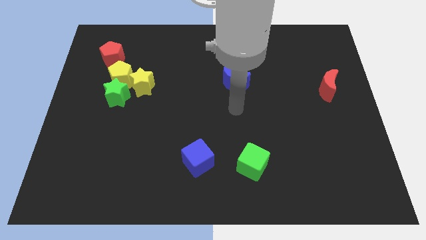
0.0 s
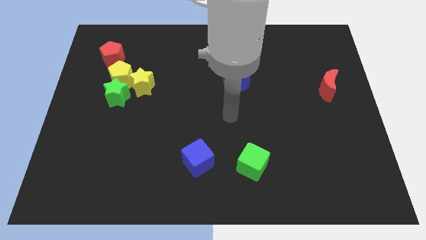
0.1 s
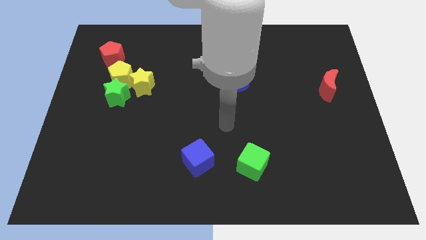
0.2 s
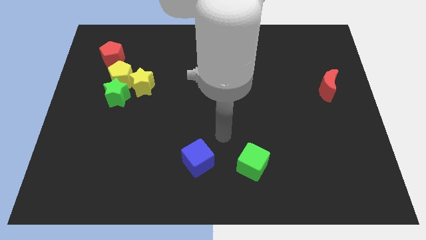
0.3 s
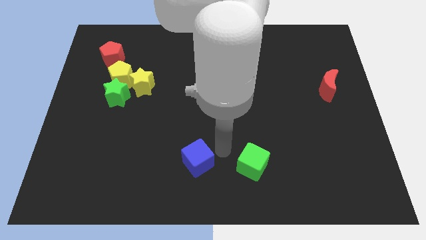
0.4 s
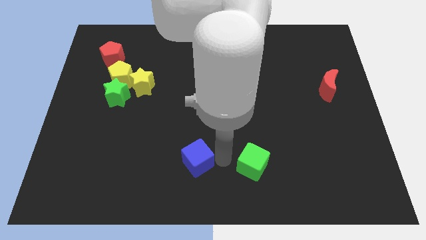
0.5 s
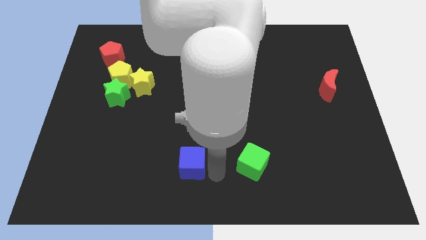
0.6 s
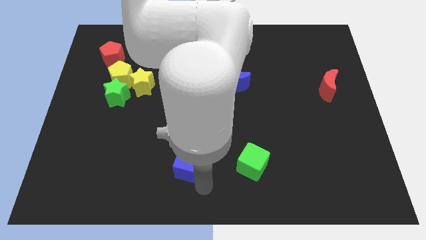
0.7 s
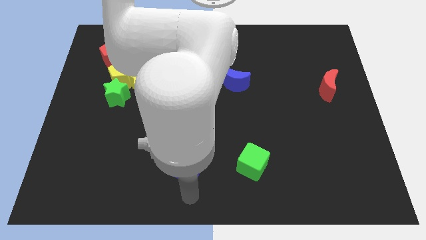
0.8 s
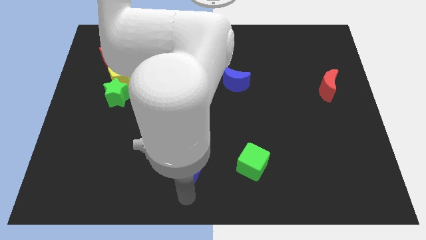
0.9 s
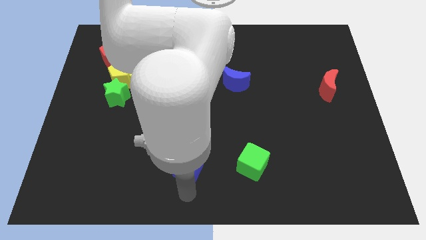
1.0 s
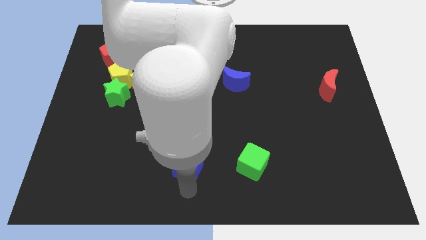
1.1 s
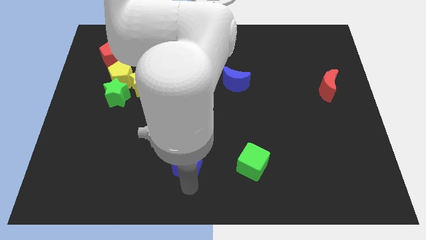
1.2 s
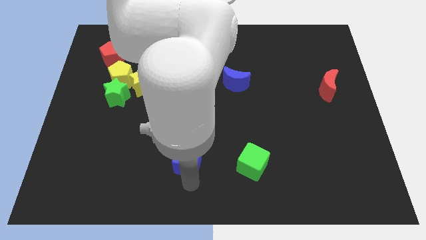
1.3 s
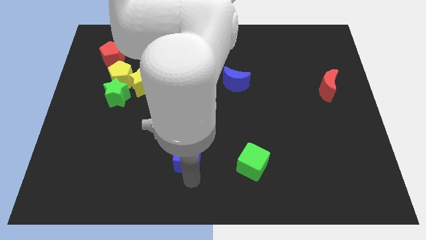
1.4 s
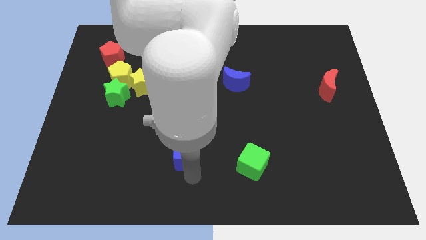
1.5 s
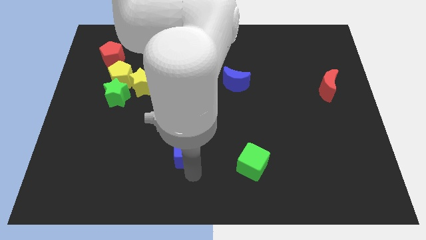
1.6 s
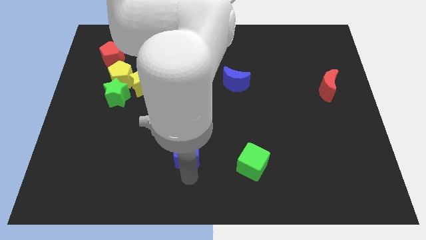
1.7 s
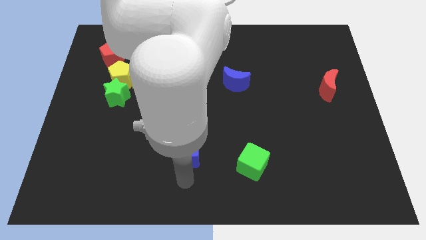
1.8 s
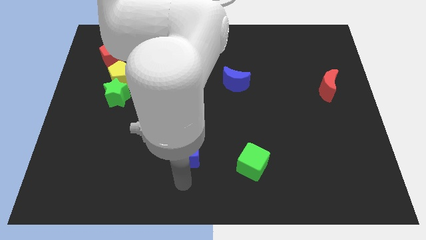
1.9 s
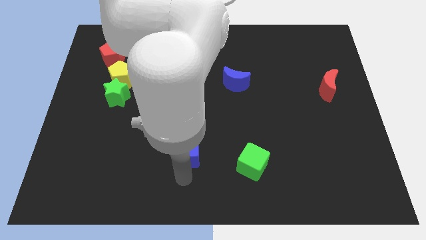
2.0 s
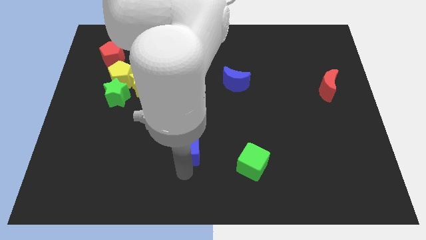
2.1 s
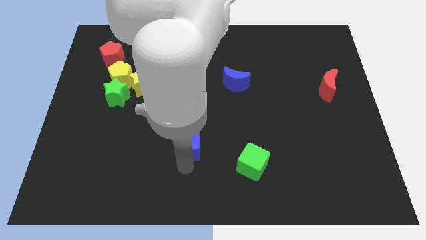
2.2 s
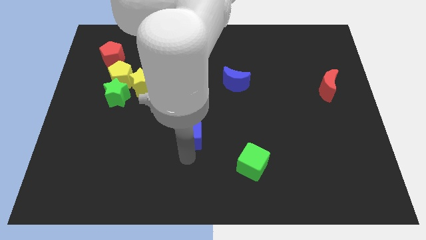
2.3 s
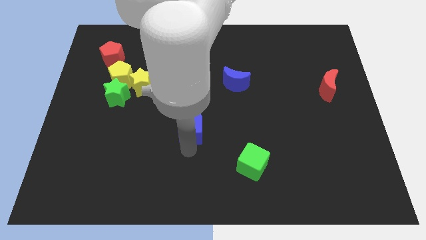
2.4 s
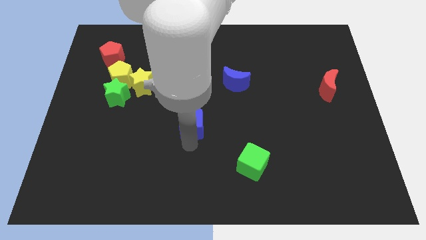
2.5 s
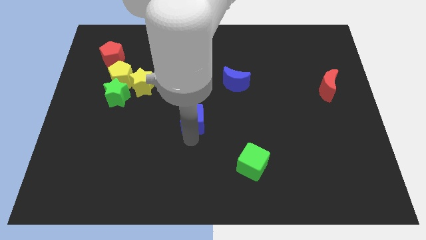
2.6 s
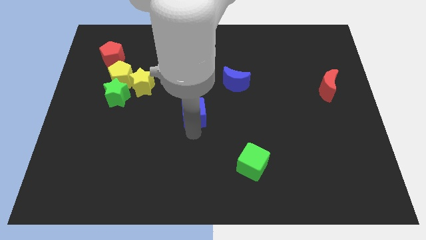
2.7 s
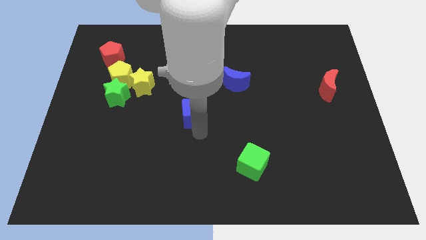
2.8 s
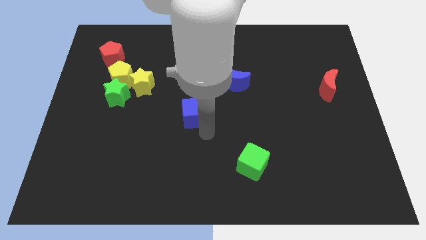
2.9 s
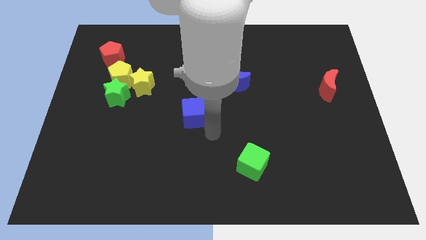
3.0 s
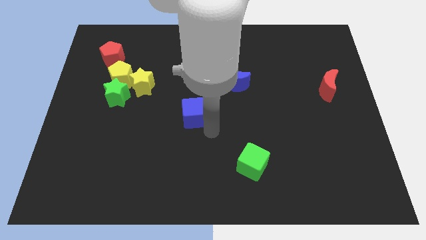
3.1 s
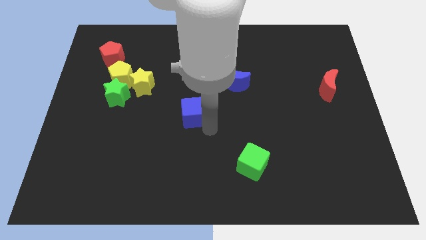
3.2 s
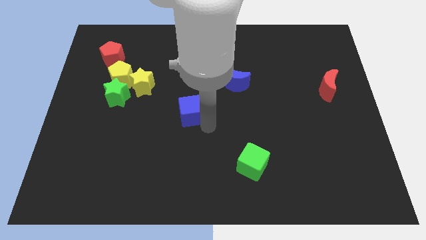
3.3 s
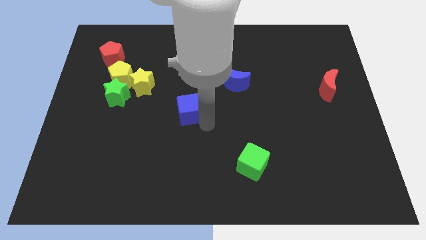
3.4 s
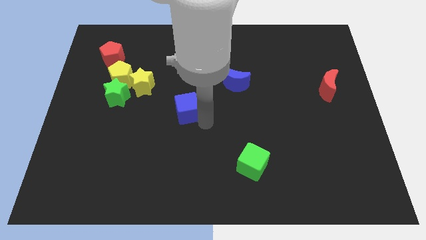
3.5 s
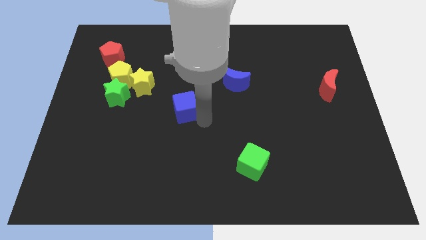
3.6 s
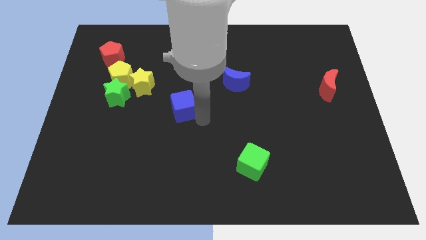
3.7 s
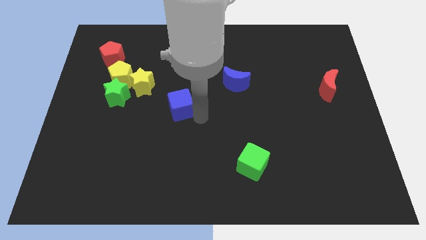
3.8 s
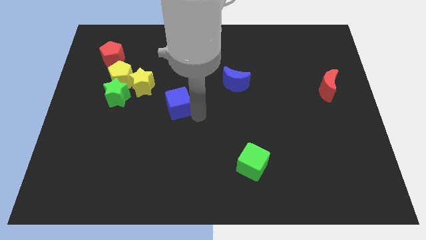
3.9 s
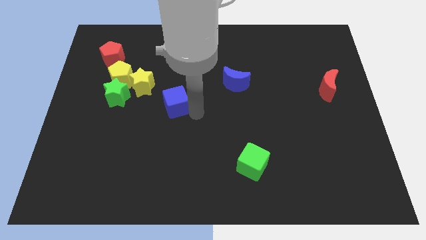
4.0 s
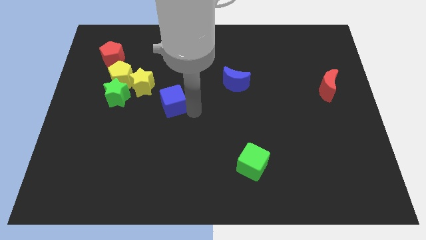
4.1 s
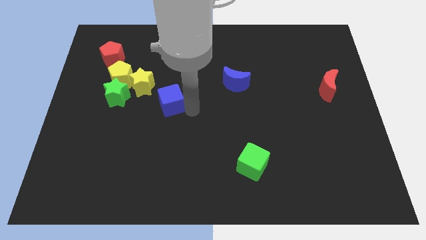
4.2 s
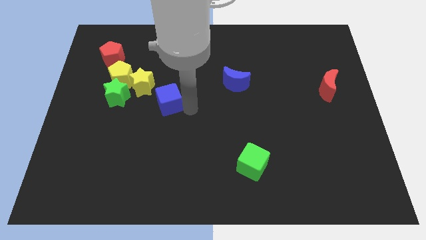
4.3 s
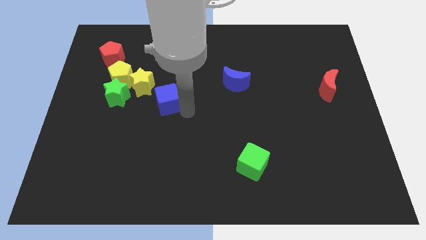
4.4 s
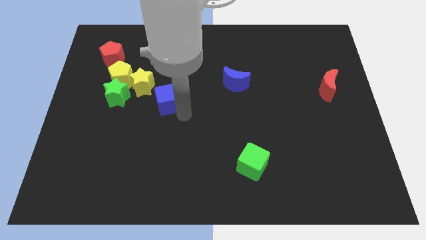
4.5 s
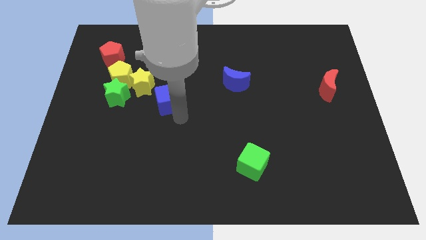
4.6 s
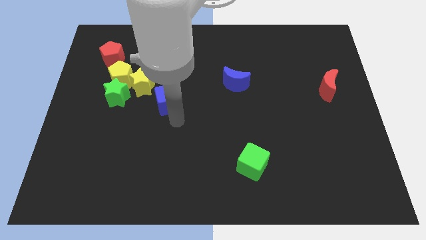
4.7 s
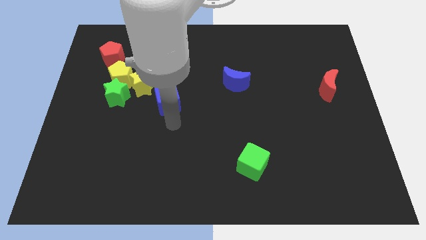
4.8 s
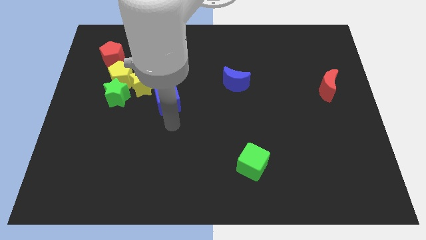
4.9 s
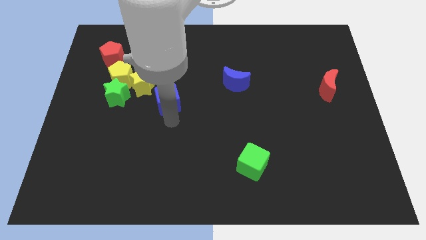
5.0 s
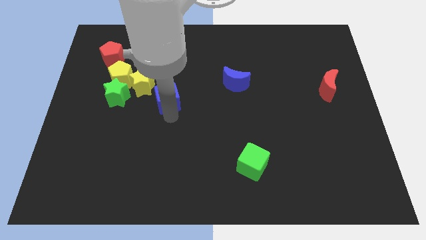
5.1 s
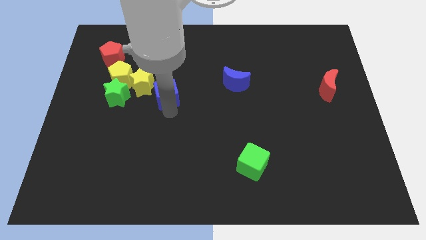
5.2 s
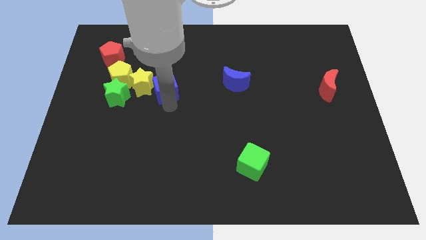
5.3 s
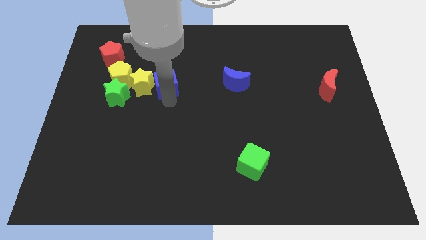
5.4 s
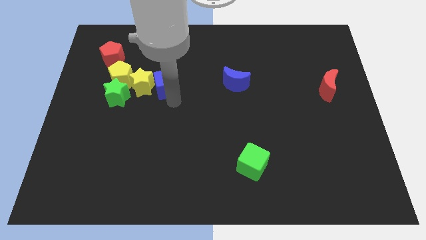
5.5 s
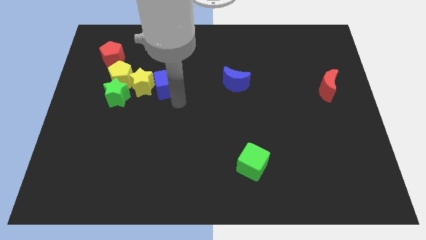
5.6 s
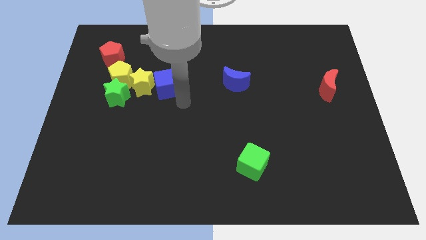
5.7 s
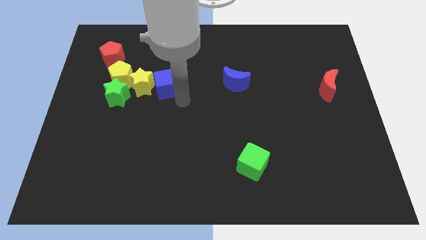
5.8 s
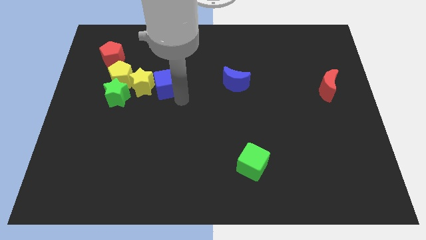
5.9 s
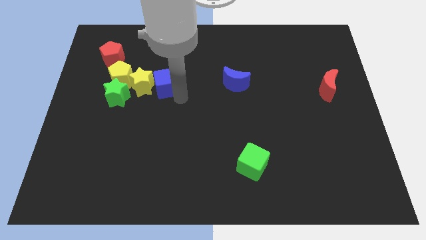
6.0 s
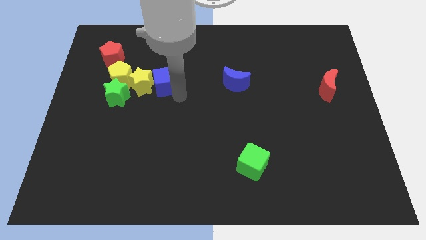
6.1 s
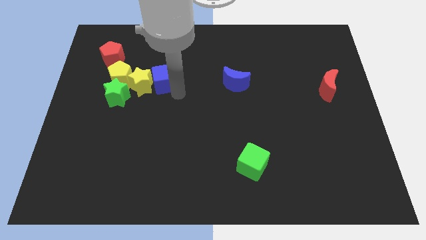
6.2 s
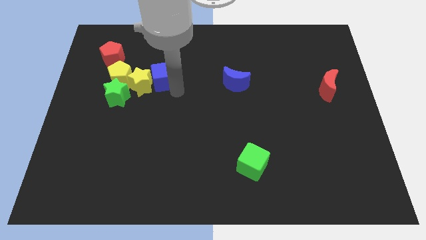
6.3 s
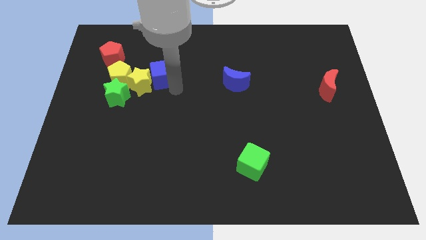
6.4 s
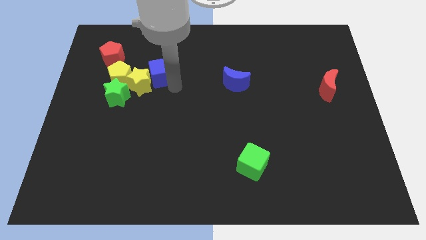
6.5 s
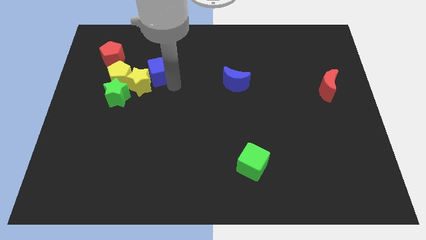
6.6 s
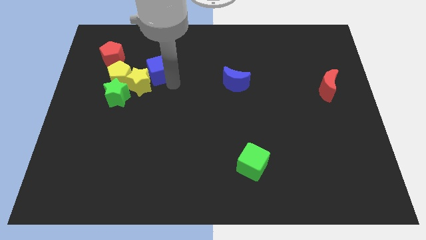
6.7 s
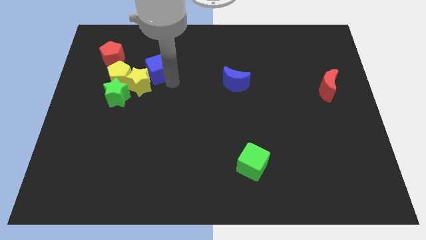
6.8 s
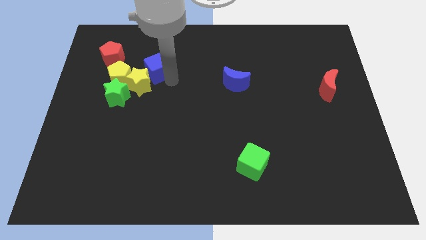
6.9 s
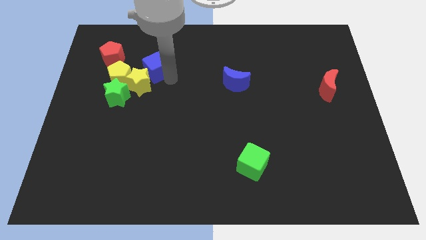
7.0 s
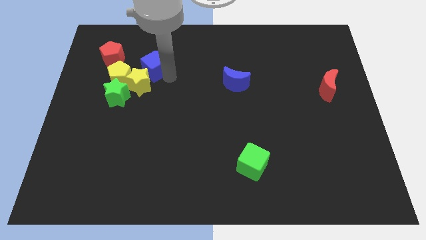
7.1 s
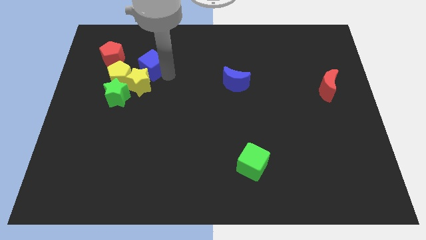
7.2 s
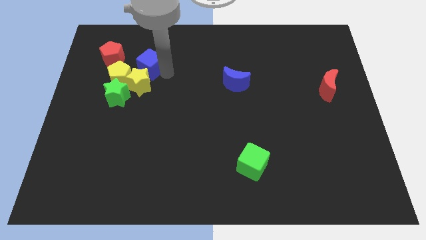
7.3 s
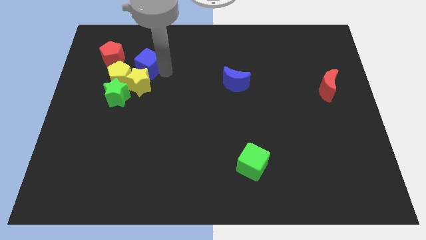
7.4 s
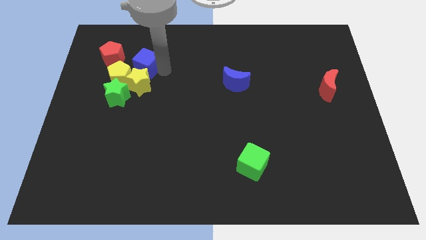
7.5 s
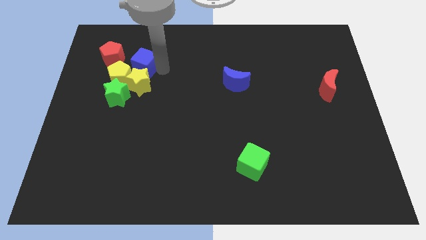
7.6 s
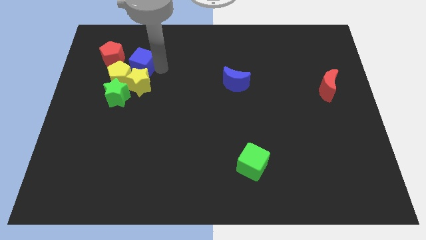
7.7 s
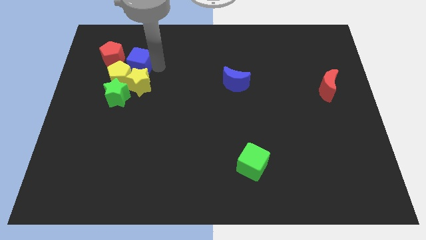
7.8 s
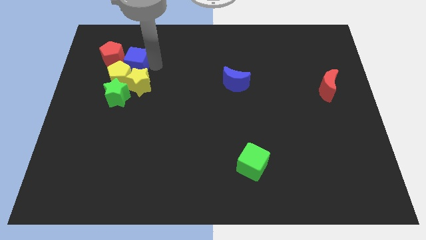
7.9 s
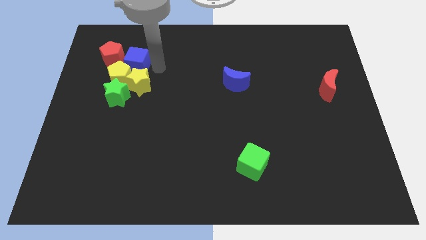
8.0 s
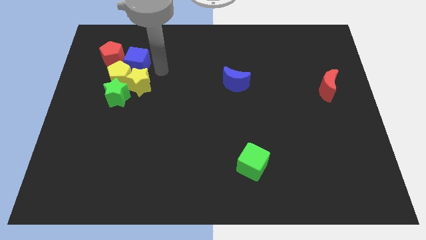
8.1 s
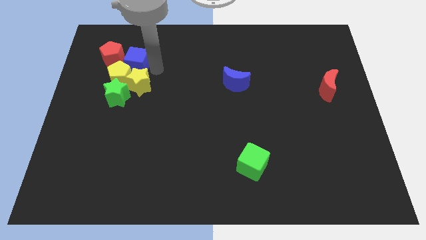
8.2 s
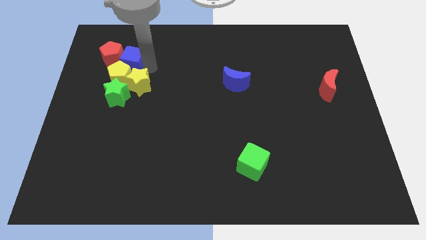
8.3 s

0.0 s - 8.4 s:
move the blue cube next to the red pentagon
